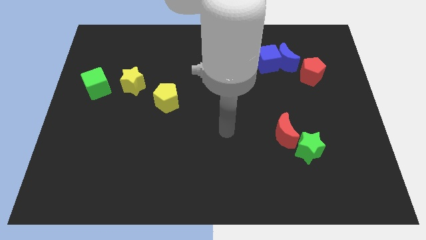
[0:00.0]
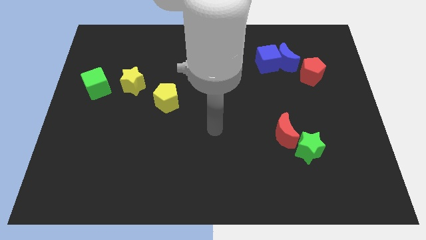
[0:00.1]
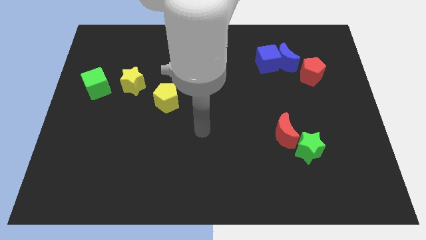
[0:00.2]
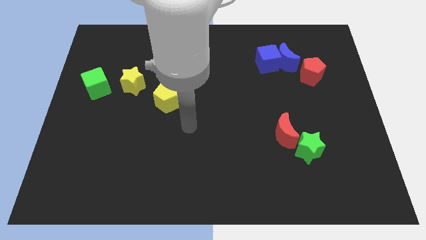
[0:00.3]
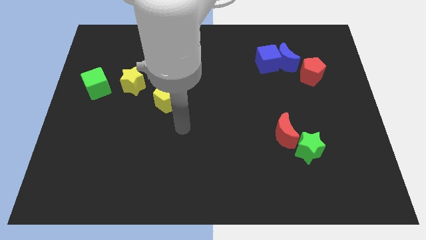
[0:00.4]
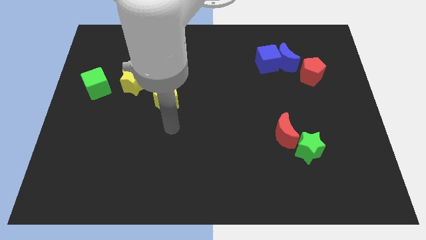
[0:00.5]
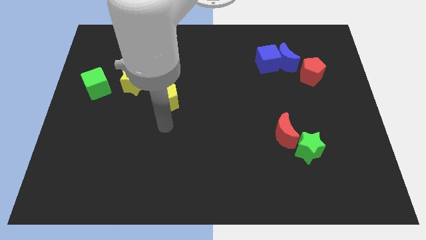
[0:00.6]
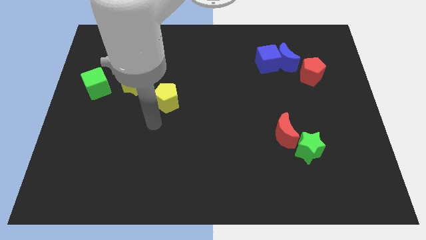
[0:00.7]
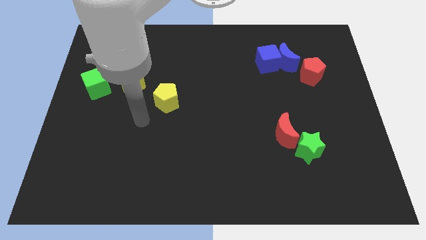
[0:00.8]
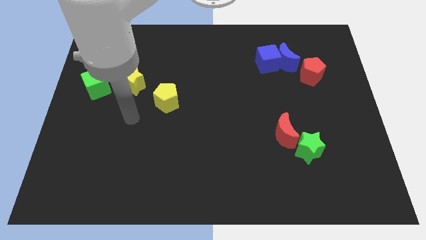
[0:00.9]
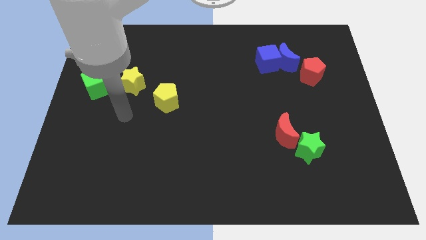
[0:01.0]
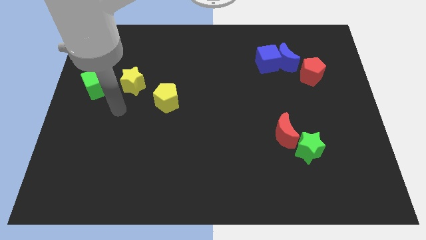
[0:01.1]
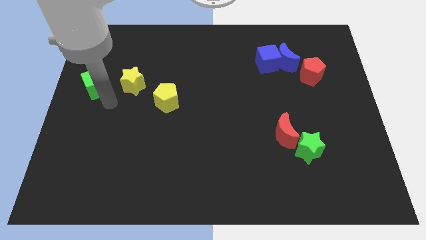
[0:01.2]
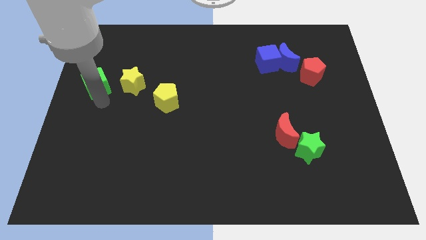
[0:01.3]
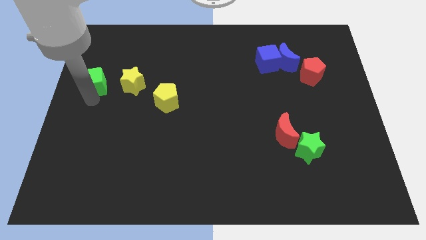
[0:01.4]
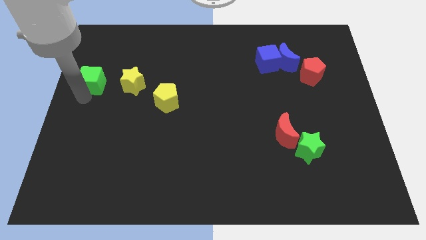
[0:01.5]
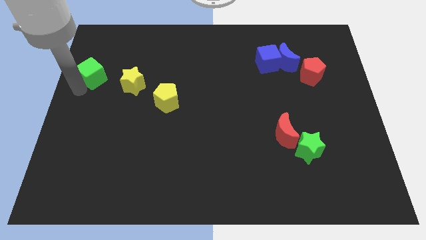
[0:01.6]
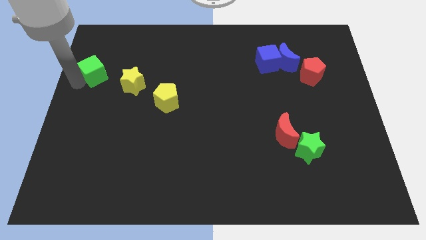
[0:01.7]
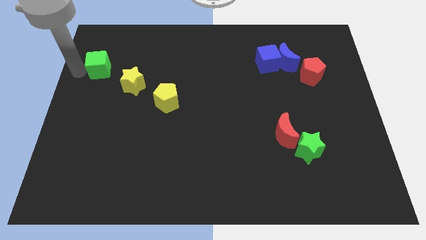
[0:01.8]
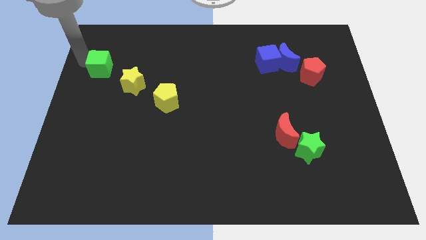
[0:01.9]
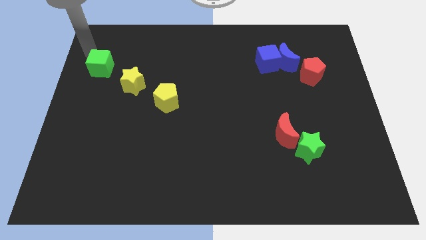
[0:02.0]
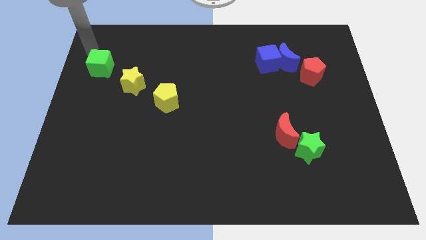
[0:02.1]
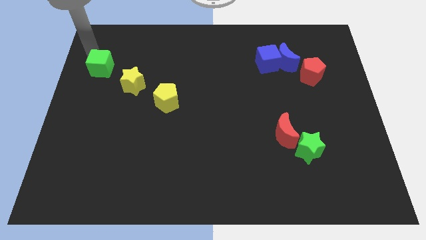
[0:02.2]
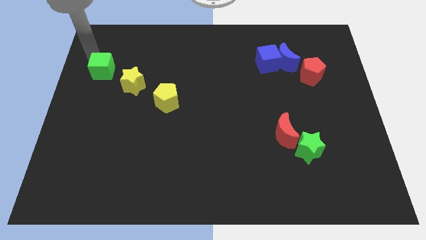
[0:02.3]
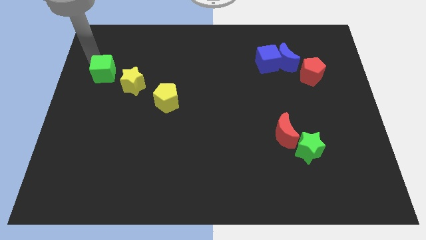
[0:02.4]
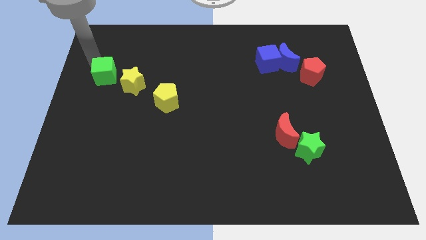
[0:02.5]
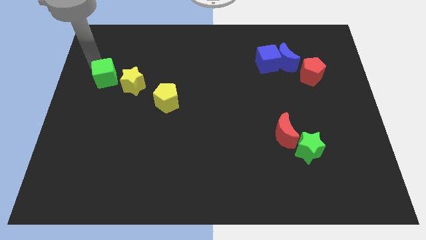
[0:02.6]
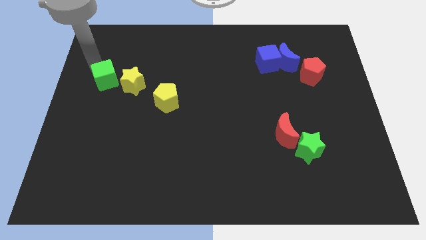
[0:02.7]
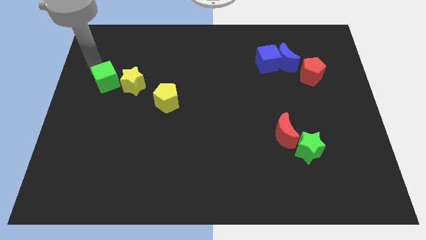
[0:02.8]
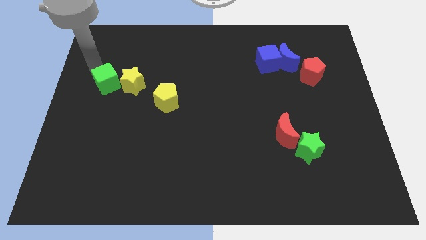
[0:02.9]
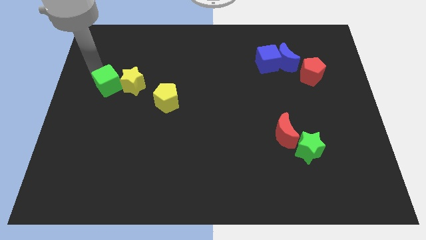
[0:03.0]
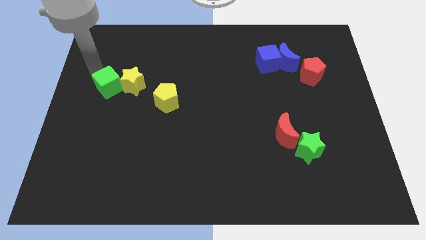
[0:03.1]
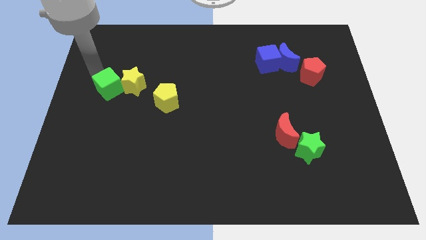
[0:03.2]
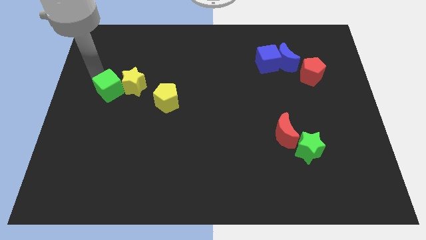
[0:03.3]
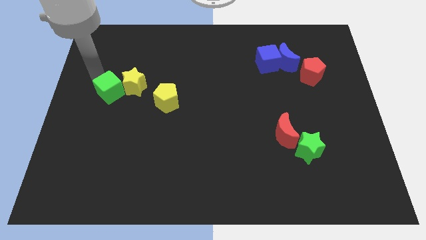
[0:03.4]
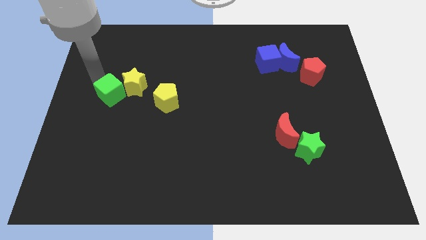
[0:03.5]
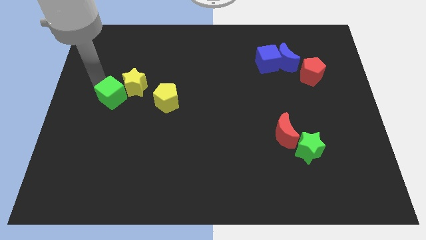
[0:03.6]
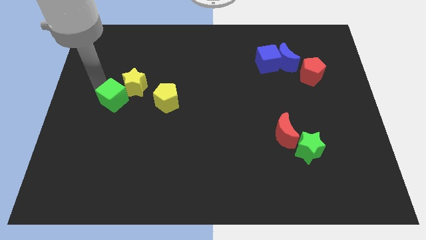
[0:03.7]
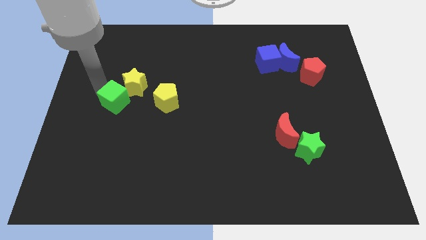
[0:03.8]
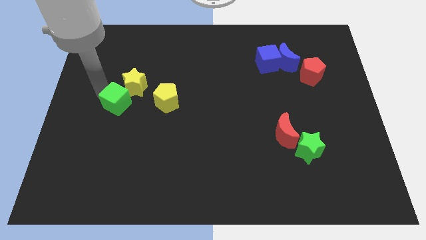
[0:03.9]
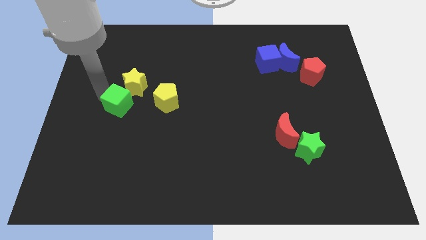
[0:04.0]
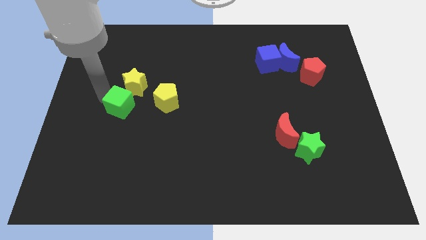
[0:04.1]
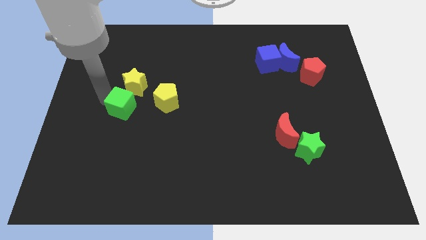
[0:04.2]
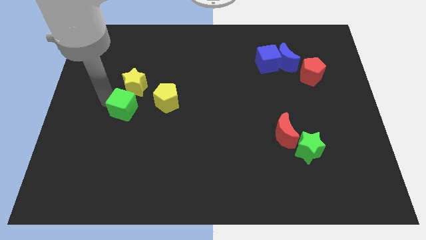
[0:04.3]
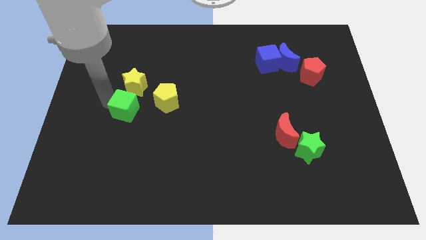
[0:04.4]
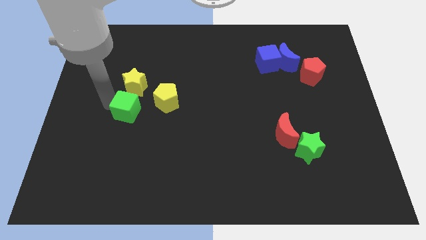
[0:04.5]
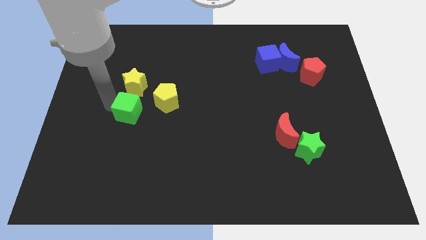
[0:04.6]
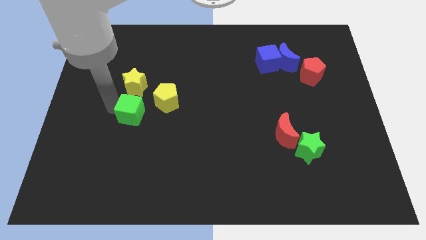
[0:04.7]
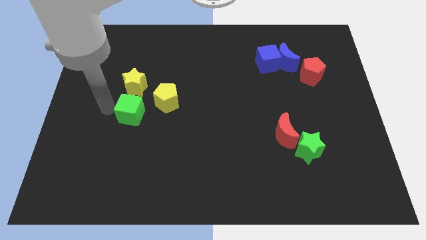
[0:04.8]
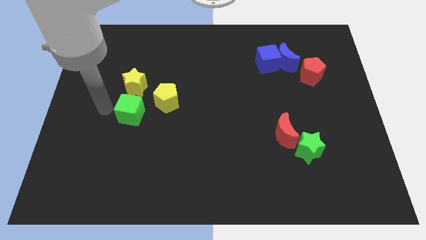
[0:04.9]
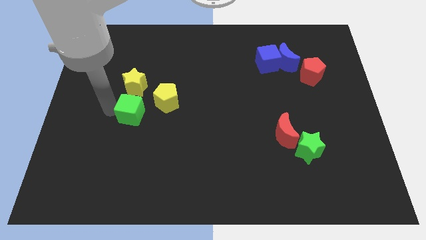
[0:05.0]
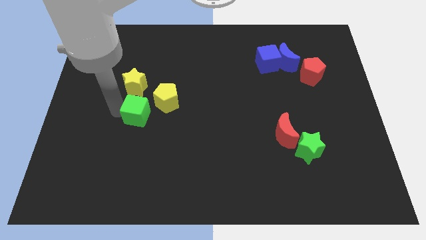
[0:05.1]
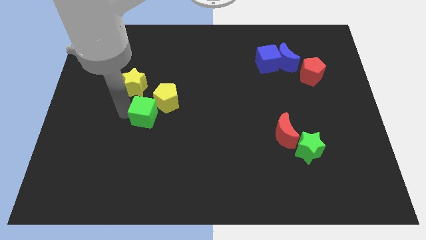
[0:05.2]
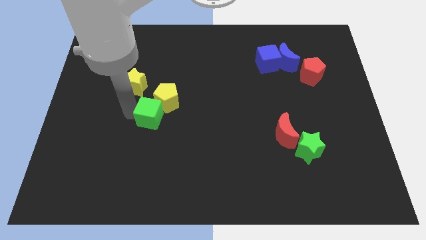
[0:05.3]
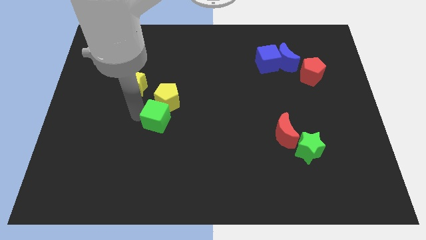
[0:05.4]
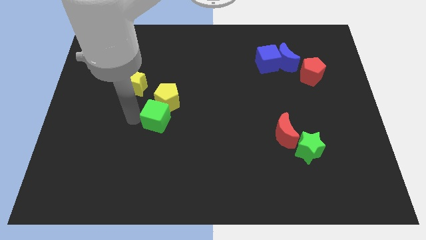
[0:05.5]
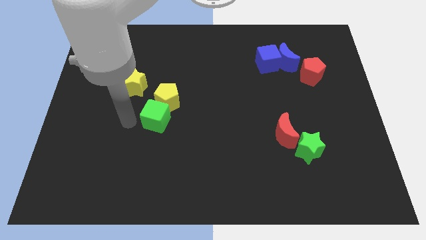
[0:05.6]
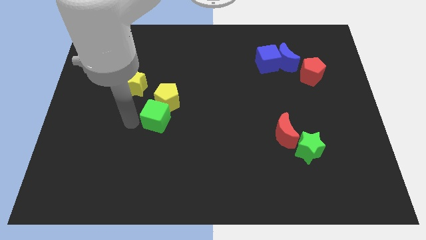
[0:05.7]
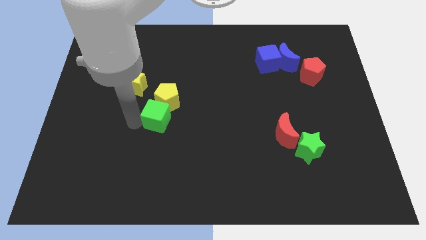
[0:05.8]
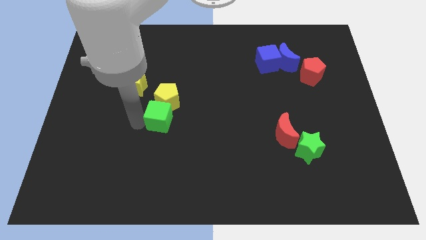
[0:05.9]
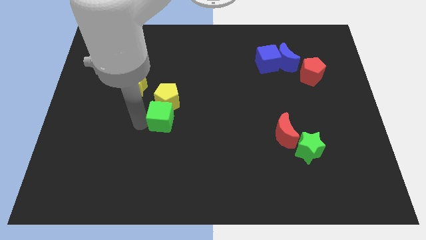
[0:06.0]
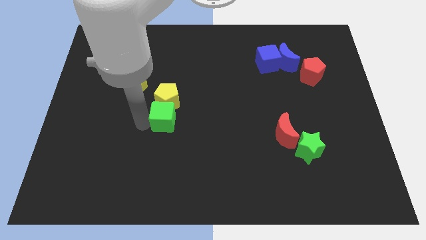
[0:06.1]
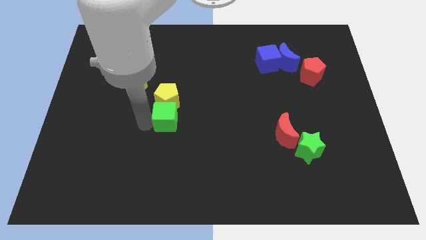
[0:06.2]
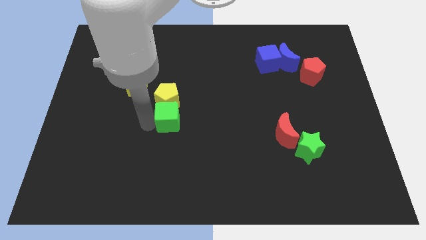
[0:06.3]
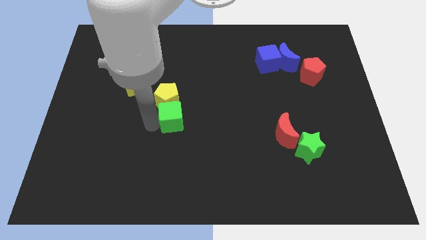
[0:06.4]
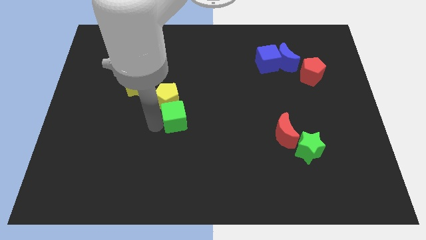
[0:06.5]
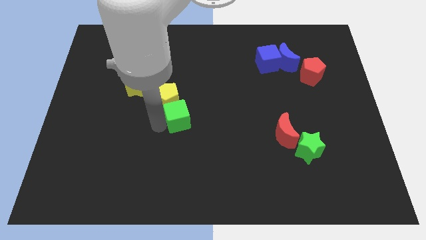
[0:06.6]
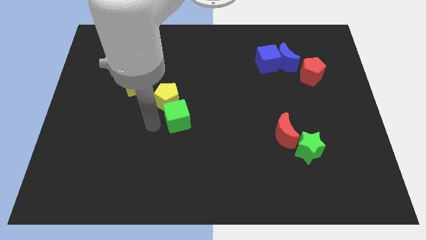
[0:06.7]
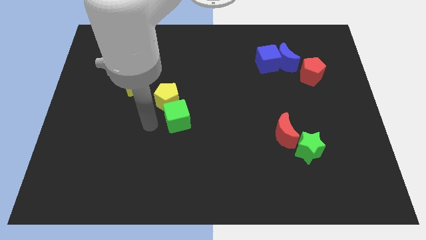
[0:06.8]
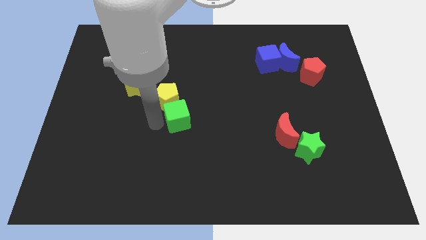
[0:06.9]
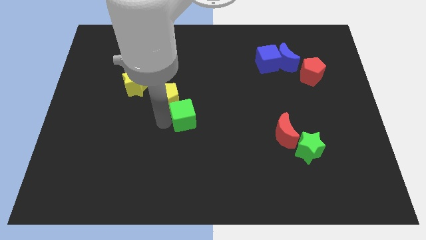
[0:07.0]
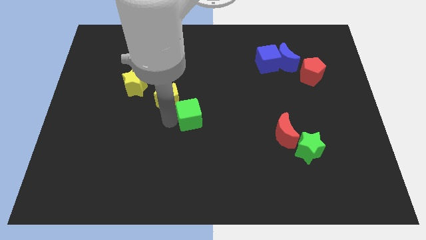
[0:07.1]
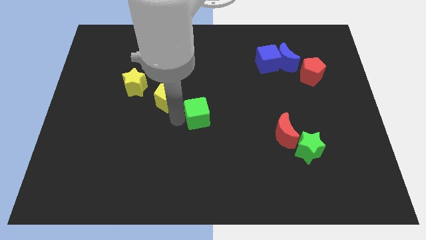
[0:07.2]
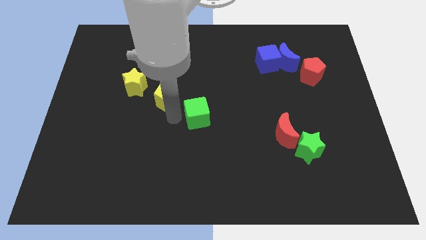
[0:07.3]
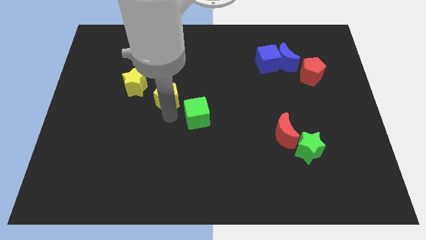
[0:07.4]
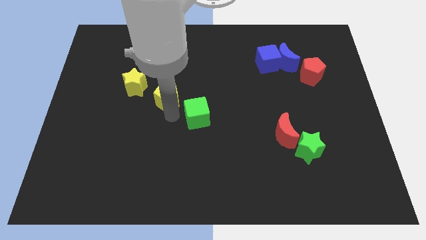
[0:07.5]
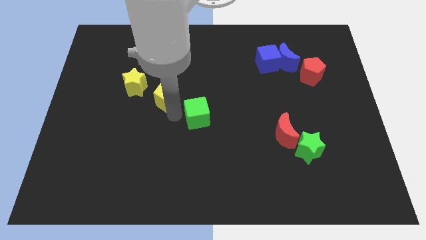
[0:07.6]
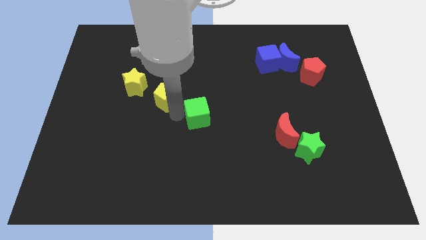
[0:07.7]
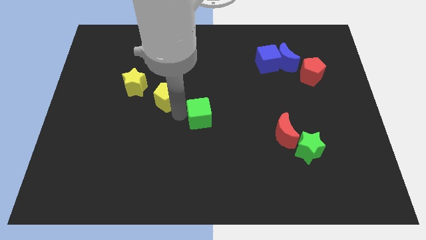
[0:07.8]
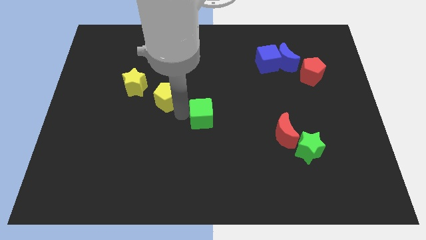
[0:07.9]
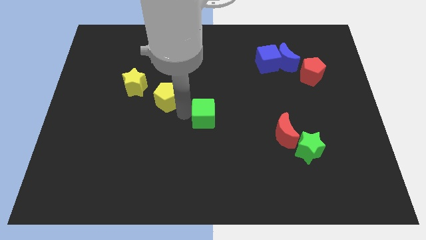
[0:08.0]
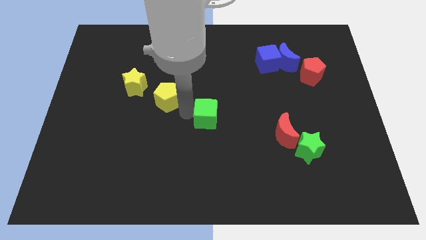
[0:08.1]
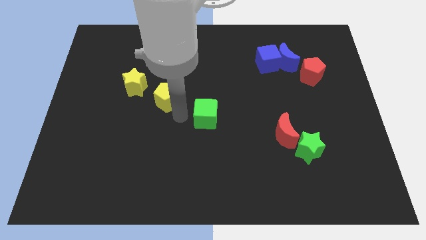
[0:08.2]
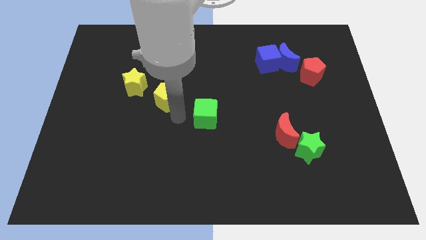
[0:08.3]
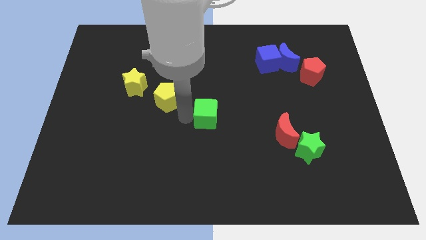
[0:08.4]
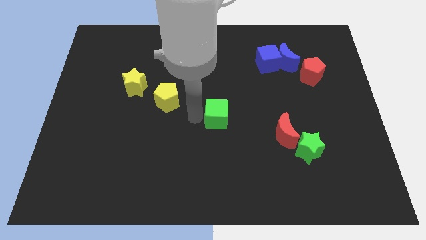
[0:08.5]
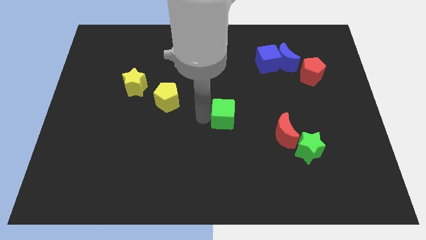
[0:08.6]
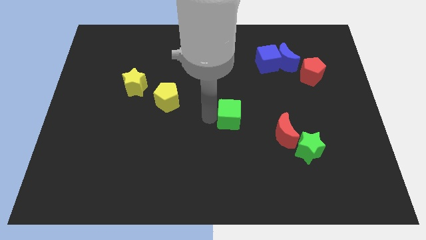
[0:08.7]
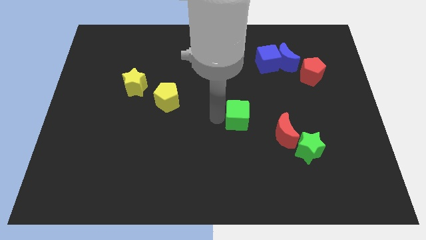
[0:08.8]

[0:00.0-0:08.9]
put the green cube to the top left of the red moon
